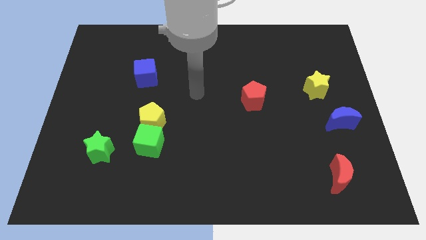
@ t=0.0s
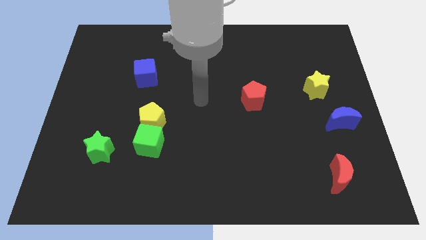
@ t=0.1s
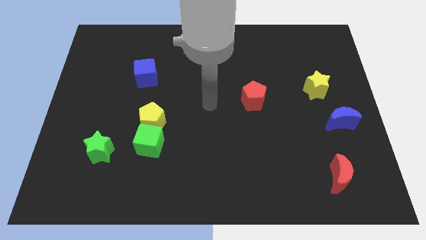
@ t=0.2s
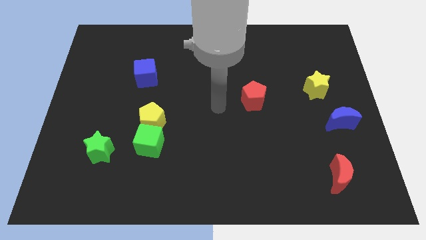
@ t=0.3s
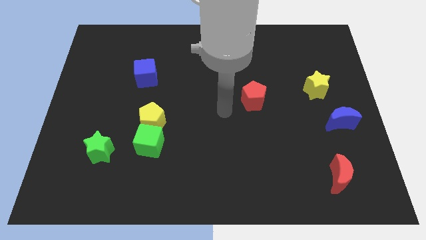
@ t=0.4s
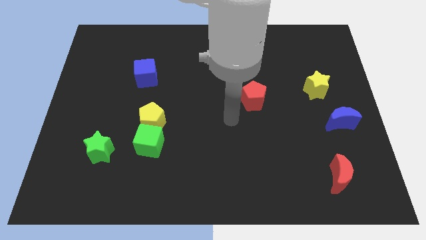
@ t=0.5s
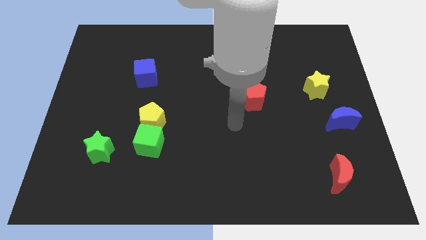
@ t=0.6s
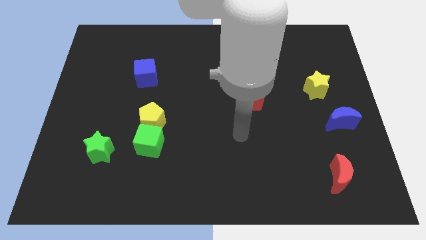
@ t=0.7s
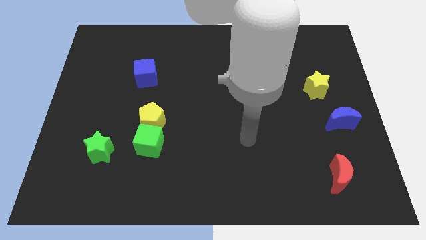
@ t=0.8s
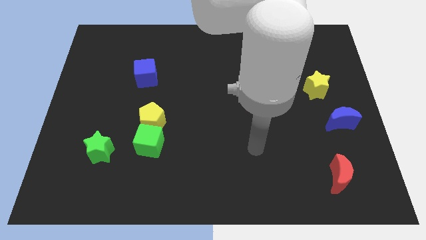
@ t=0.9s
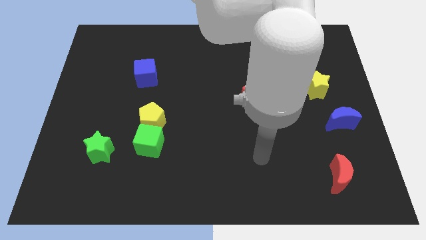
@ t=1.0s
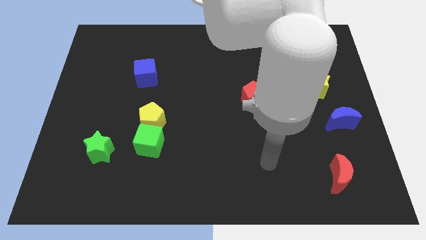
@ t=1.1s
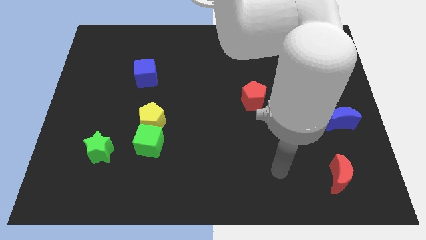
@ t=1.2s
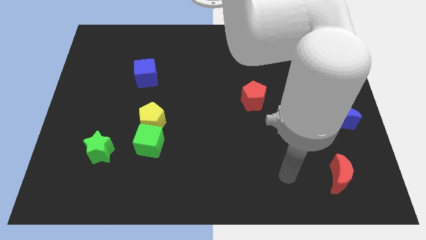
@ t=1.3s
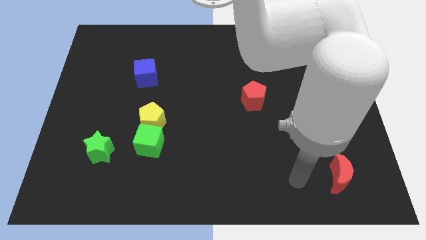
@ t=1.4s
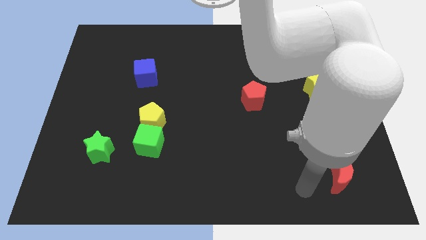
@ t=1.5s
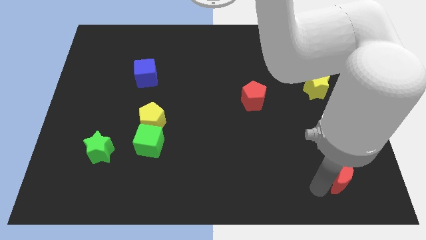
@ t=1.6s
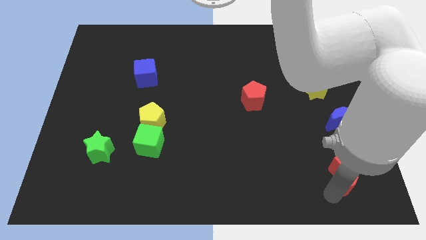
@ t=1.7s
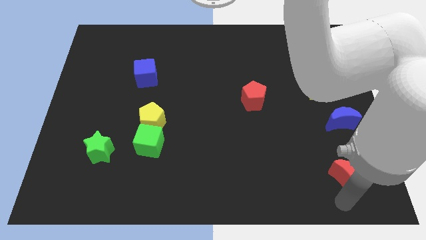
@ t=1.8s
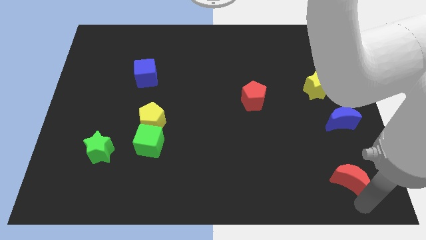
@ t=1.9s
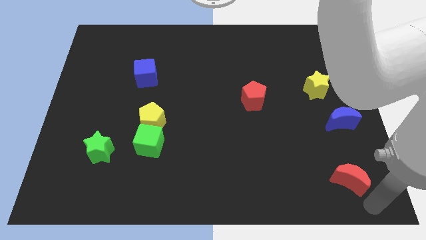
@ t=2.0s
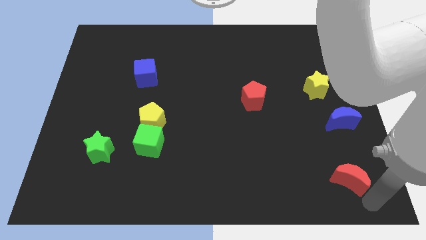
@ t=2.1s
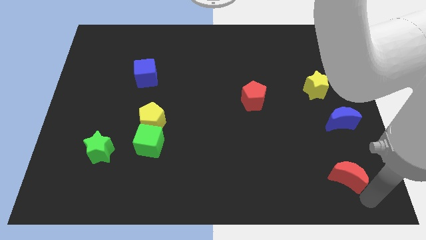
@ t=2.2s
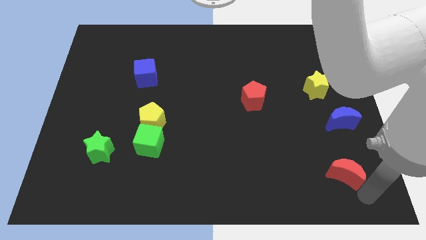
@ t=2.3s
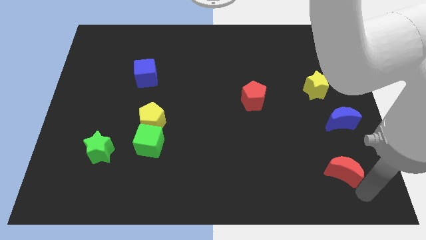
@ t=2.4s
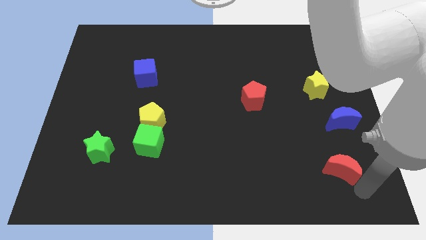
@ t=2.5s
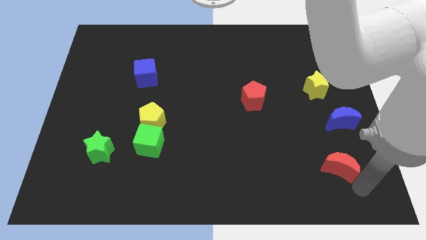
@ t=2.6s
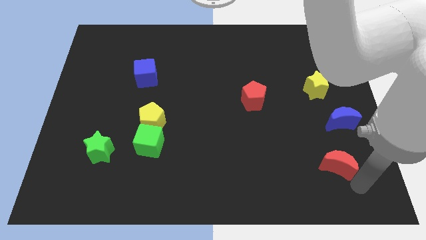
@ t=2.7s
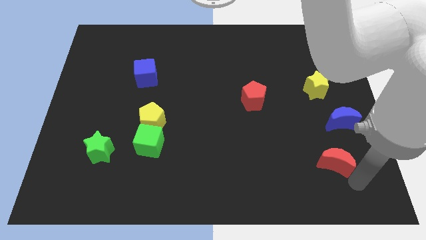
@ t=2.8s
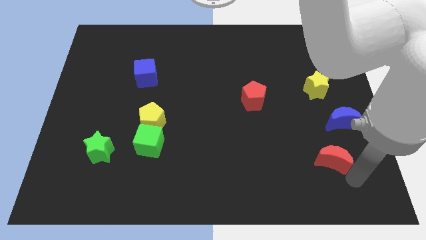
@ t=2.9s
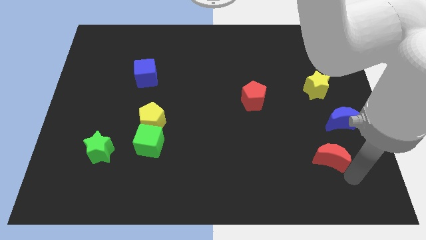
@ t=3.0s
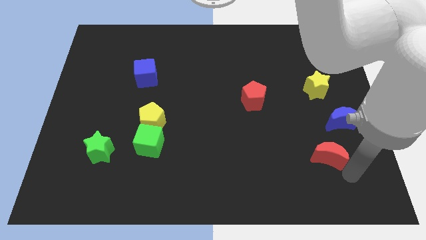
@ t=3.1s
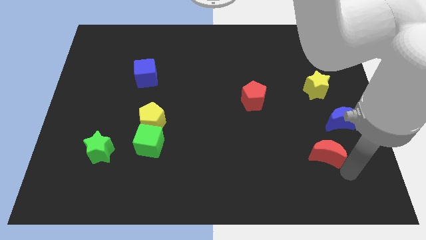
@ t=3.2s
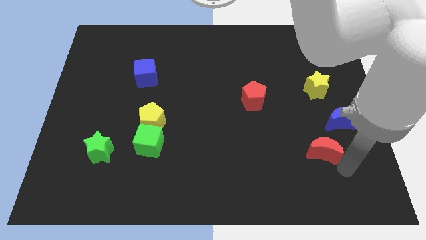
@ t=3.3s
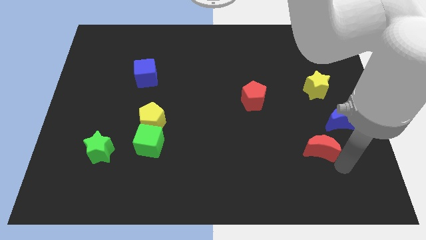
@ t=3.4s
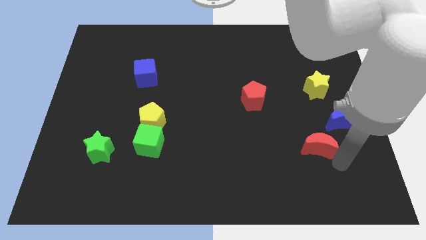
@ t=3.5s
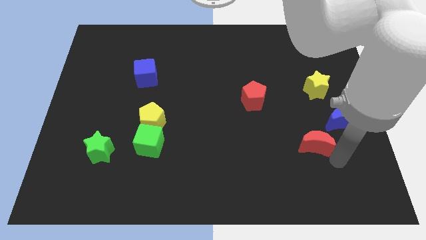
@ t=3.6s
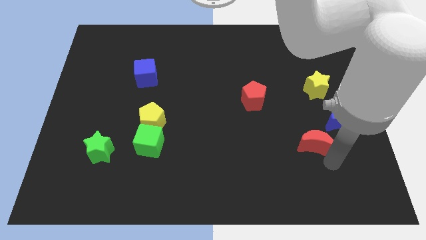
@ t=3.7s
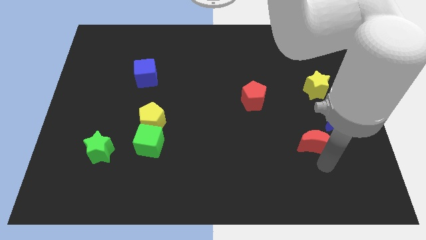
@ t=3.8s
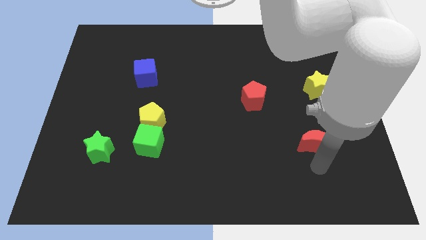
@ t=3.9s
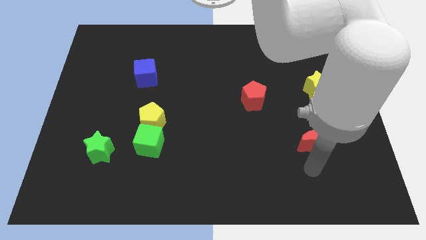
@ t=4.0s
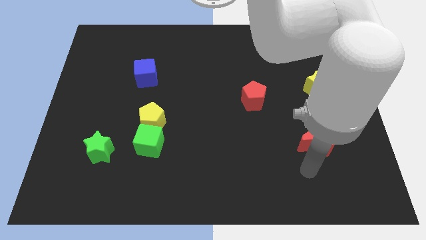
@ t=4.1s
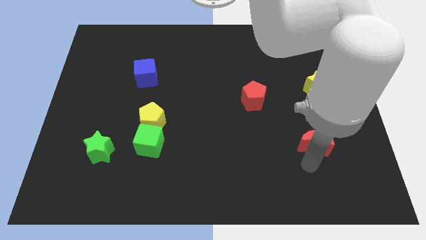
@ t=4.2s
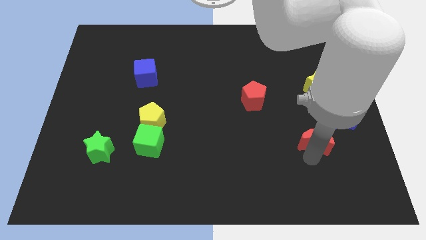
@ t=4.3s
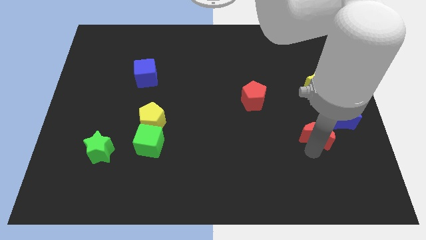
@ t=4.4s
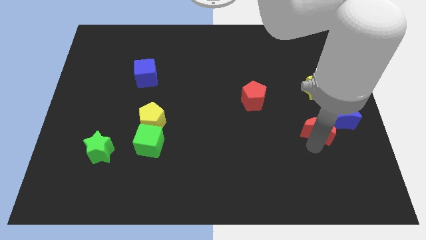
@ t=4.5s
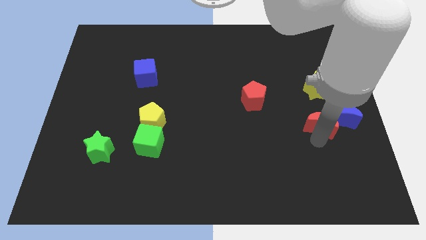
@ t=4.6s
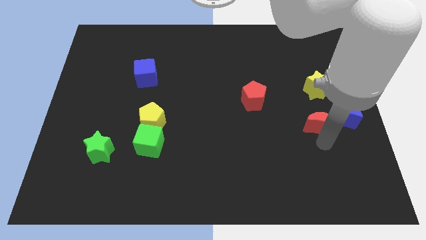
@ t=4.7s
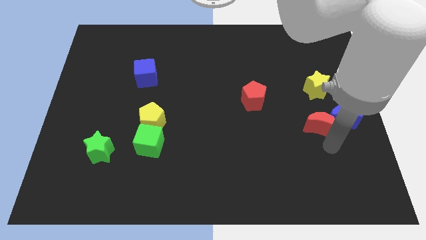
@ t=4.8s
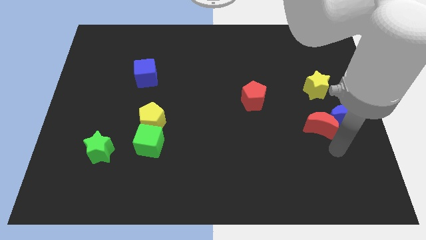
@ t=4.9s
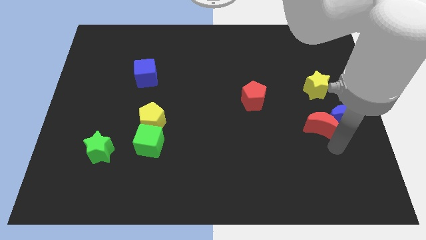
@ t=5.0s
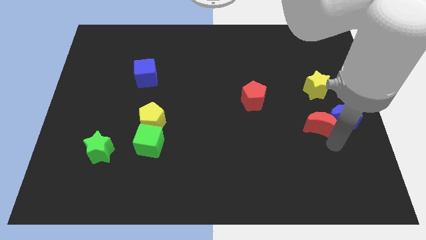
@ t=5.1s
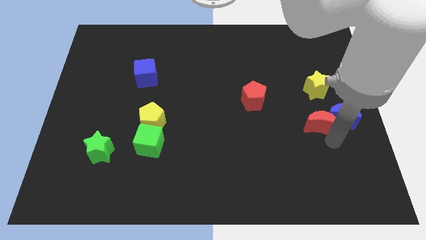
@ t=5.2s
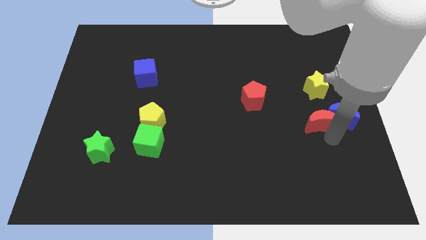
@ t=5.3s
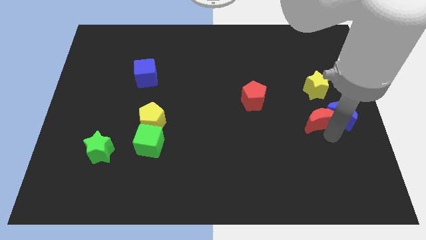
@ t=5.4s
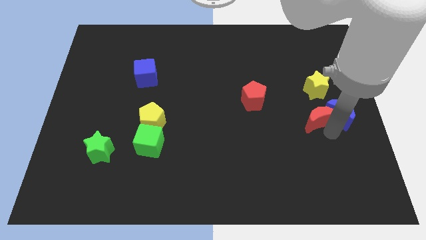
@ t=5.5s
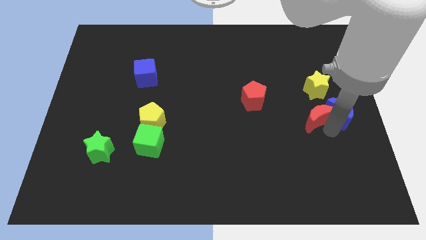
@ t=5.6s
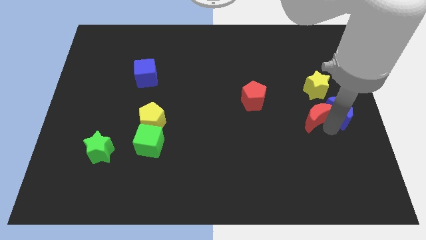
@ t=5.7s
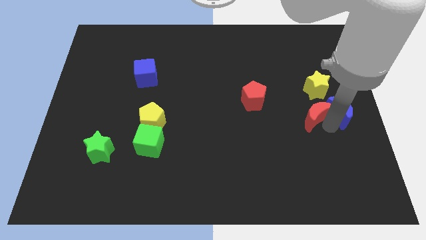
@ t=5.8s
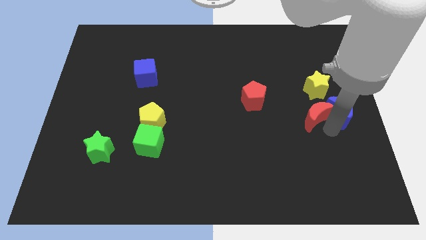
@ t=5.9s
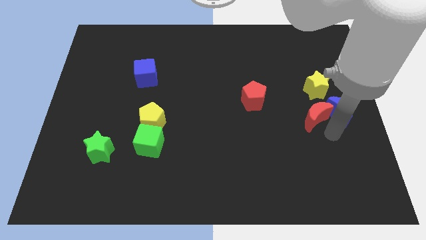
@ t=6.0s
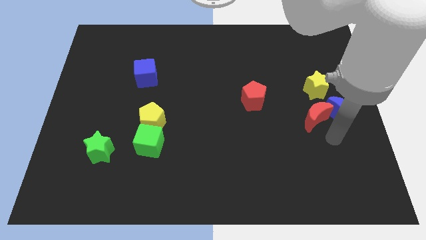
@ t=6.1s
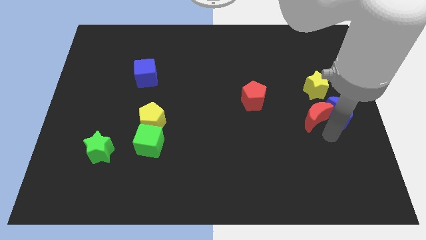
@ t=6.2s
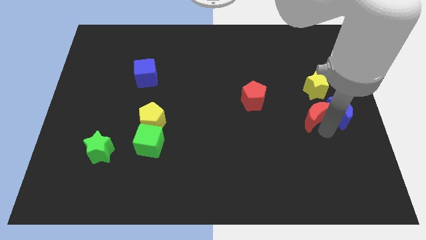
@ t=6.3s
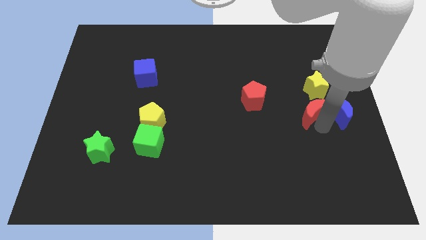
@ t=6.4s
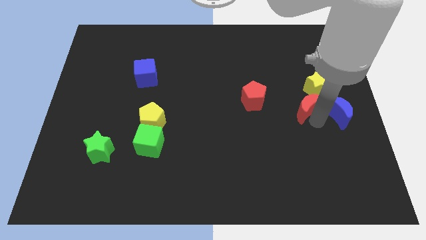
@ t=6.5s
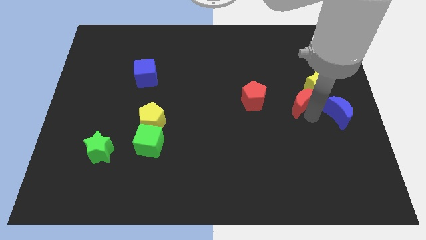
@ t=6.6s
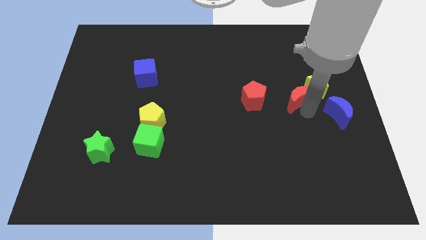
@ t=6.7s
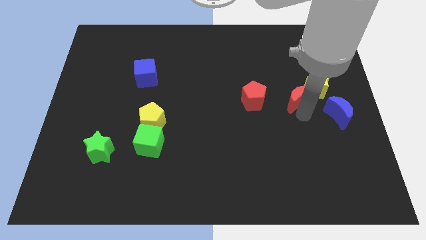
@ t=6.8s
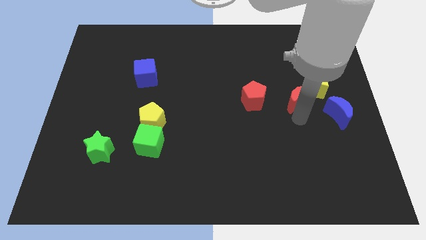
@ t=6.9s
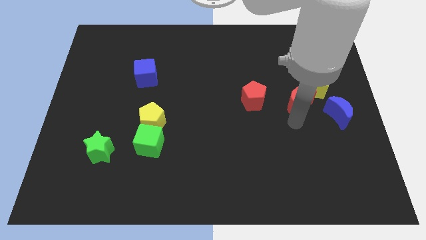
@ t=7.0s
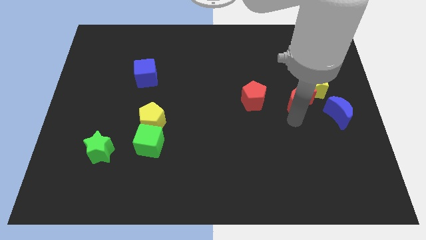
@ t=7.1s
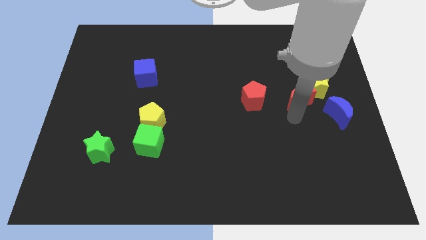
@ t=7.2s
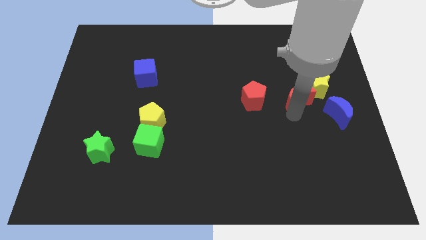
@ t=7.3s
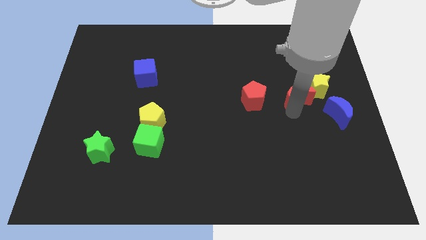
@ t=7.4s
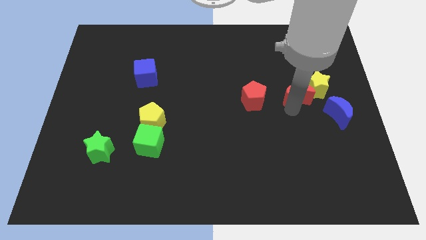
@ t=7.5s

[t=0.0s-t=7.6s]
slide the red moon upwards

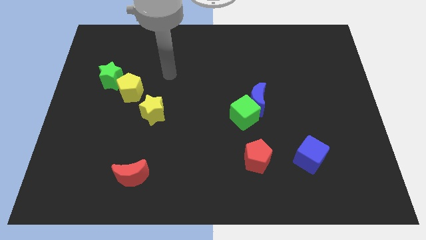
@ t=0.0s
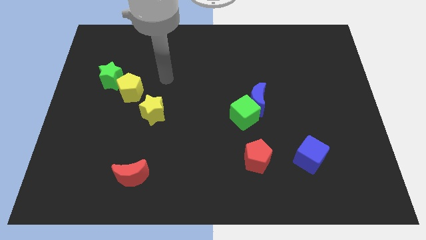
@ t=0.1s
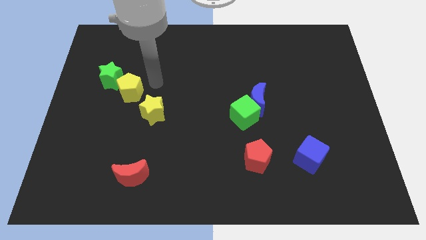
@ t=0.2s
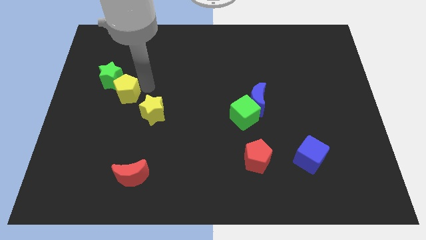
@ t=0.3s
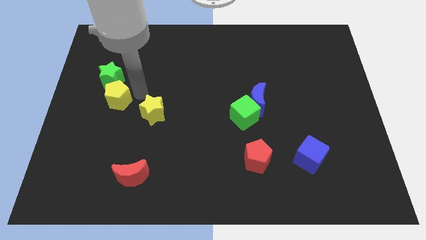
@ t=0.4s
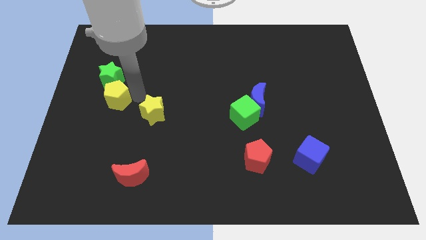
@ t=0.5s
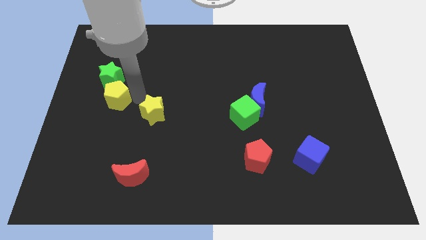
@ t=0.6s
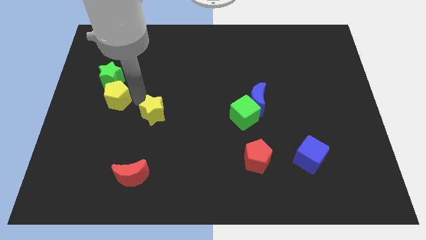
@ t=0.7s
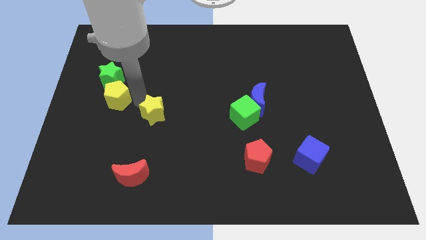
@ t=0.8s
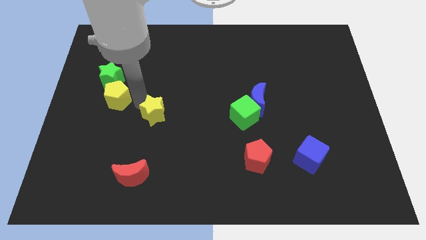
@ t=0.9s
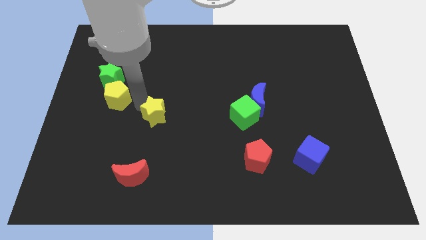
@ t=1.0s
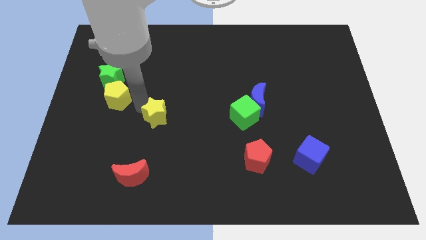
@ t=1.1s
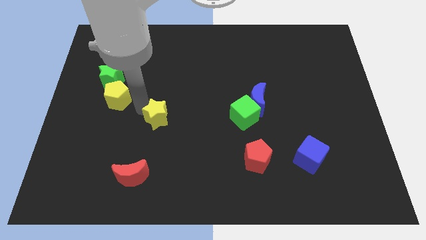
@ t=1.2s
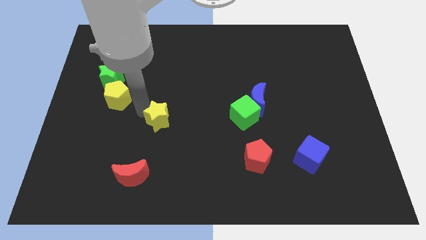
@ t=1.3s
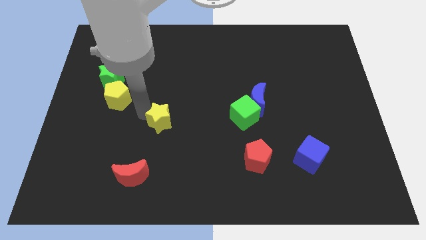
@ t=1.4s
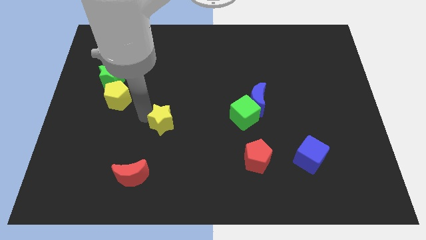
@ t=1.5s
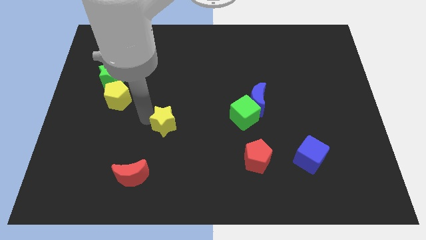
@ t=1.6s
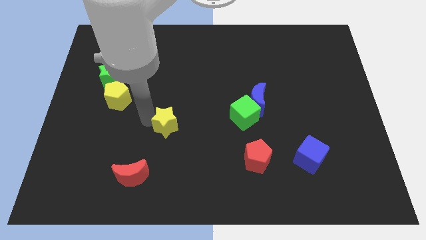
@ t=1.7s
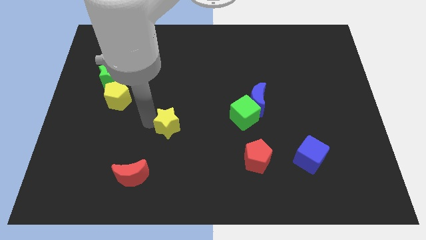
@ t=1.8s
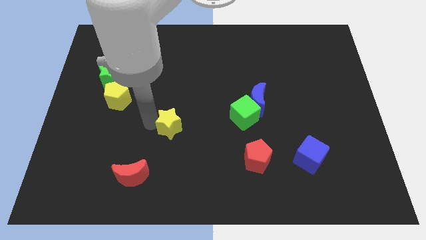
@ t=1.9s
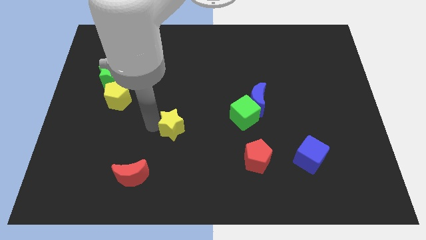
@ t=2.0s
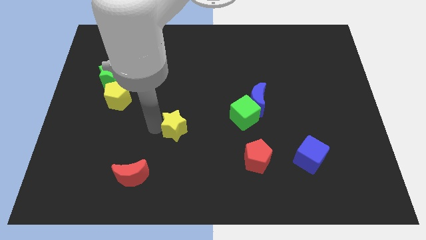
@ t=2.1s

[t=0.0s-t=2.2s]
move the yellow star down and right diagonally a little bit
